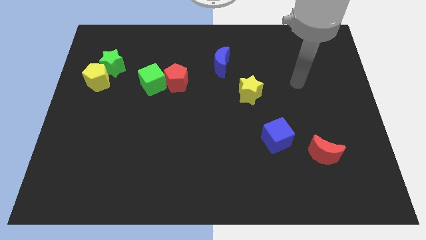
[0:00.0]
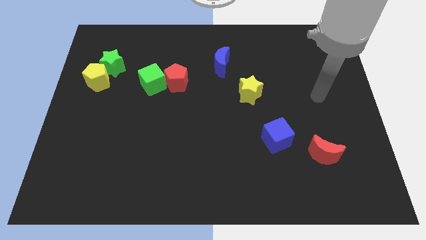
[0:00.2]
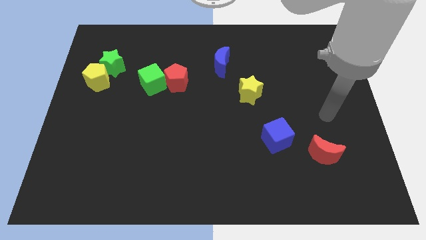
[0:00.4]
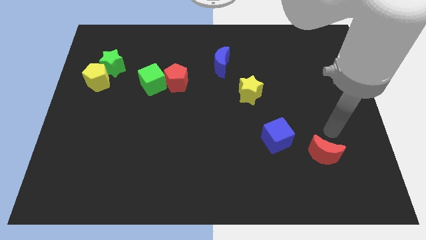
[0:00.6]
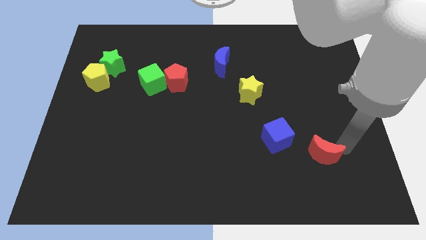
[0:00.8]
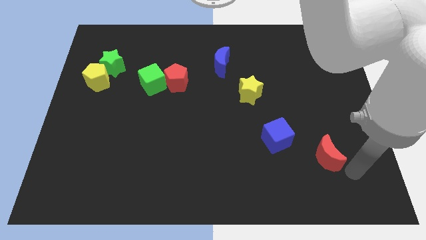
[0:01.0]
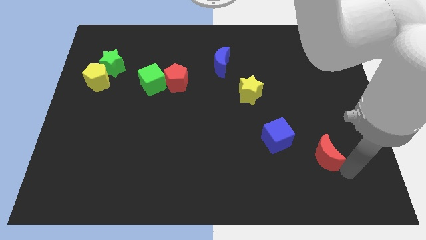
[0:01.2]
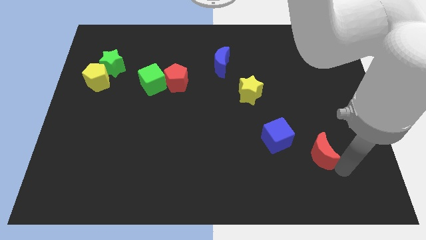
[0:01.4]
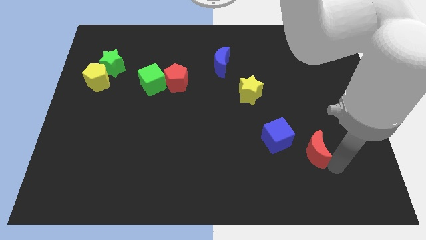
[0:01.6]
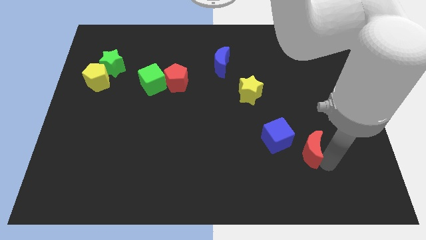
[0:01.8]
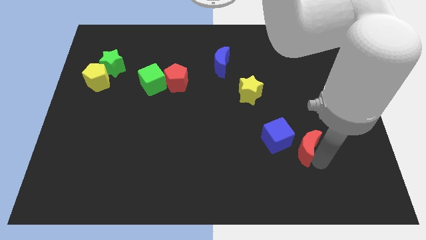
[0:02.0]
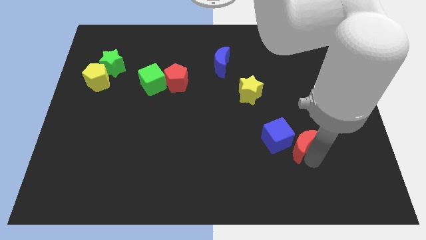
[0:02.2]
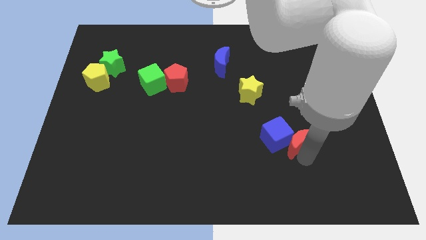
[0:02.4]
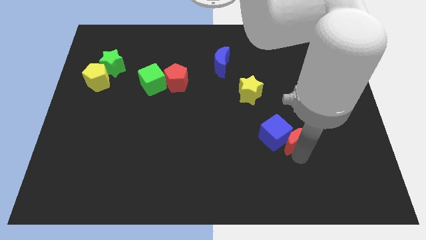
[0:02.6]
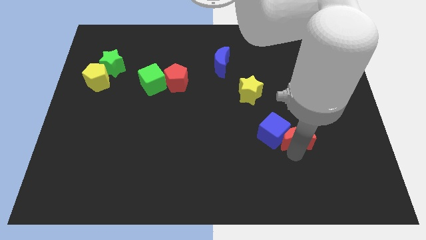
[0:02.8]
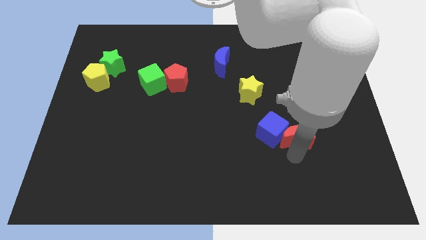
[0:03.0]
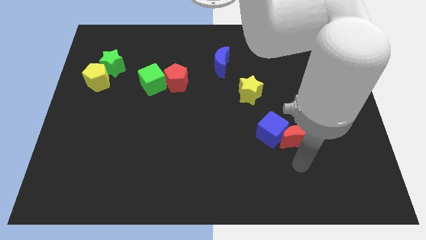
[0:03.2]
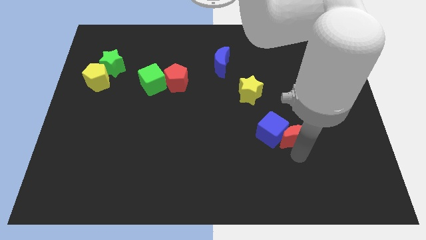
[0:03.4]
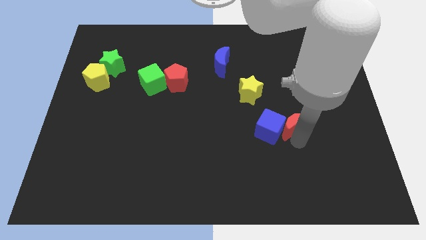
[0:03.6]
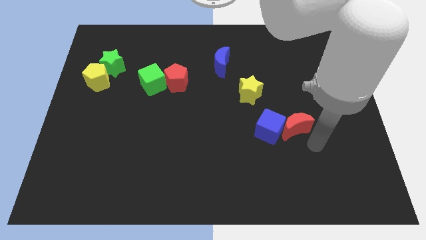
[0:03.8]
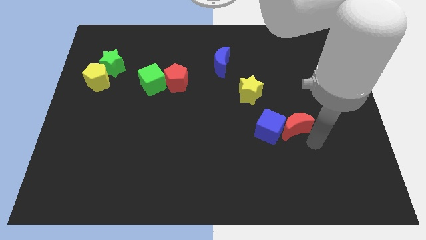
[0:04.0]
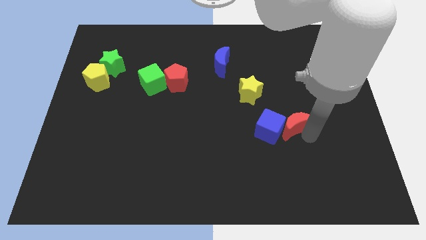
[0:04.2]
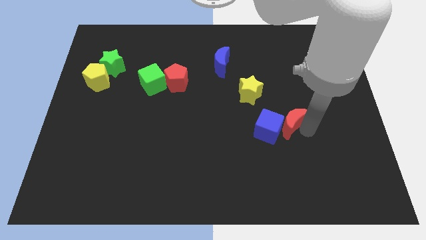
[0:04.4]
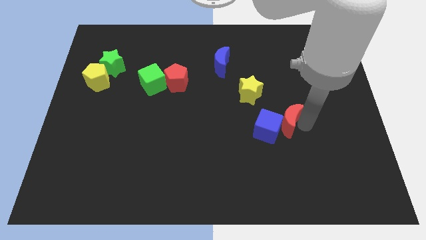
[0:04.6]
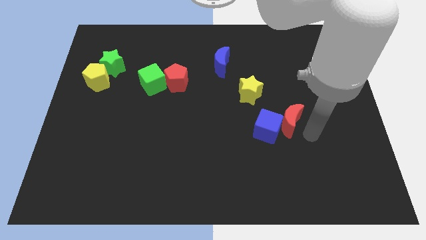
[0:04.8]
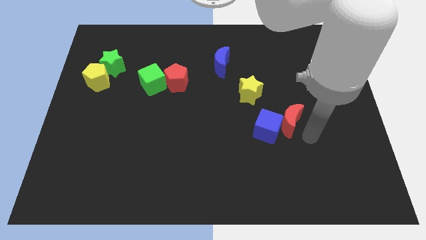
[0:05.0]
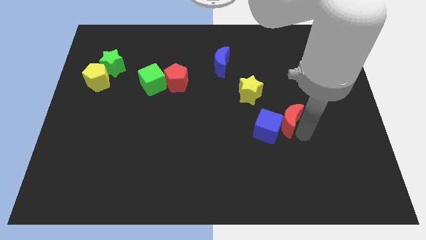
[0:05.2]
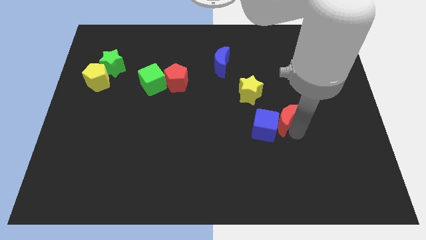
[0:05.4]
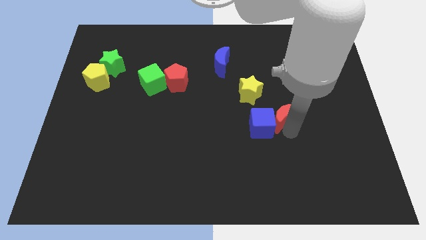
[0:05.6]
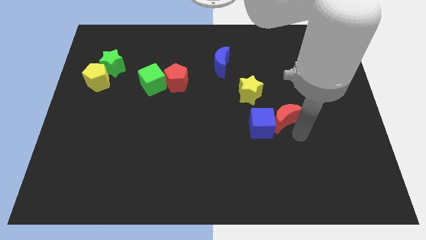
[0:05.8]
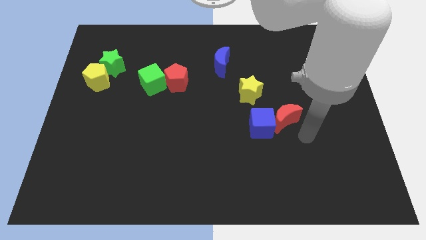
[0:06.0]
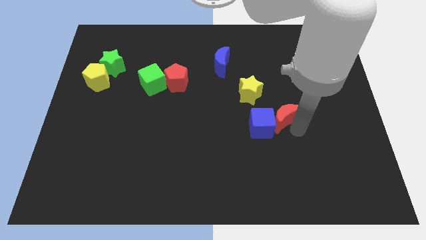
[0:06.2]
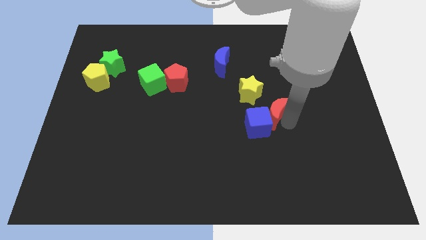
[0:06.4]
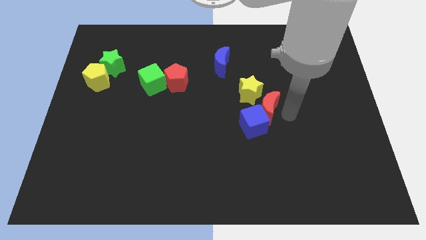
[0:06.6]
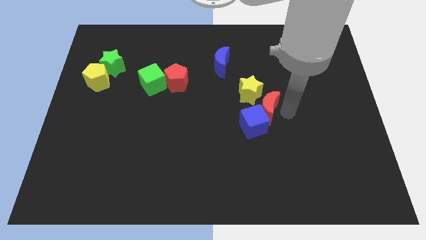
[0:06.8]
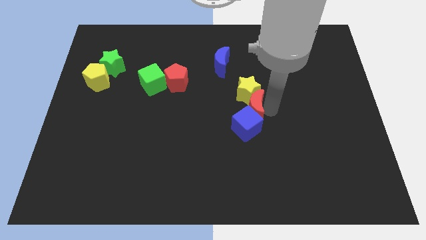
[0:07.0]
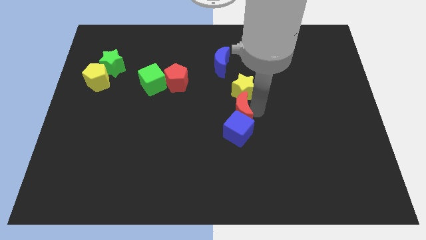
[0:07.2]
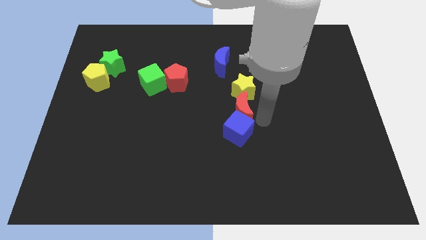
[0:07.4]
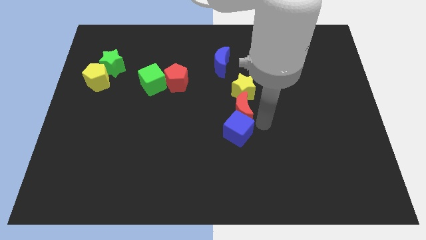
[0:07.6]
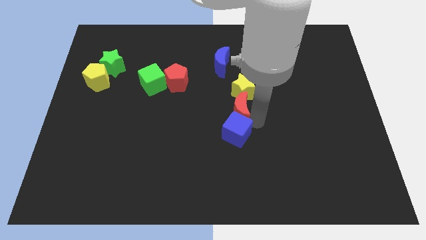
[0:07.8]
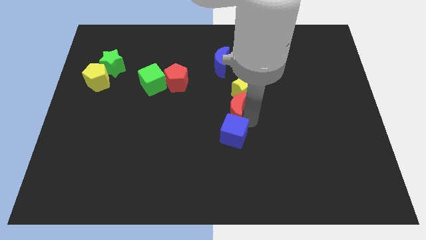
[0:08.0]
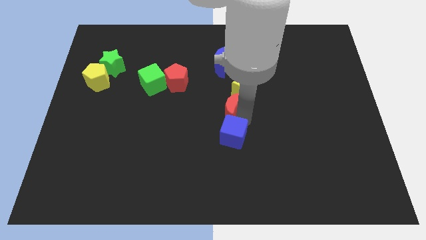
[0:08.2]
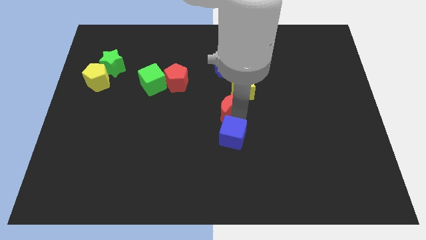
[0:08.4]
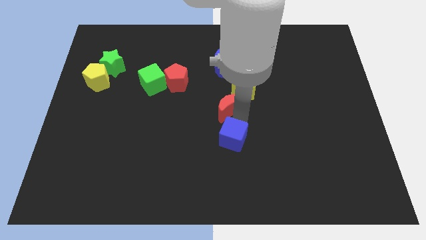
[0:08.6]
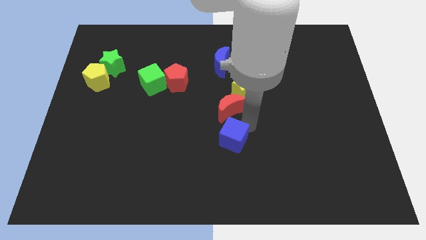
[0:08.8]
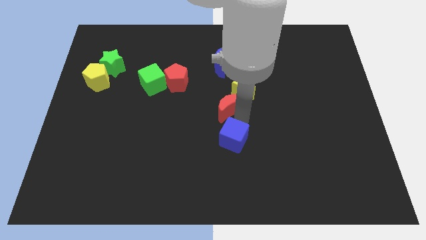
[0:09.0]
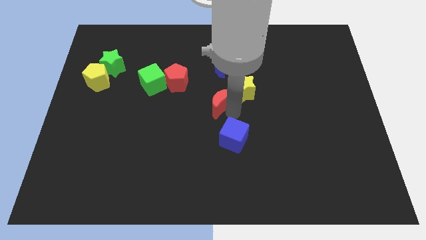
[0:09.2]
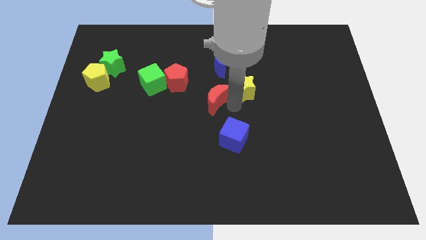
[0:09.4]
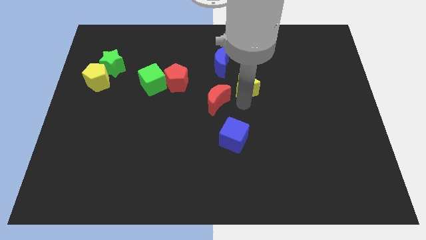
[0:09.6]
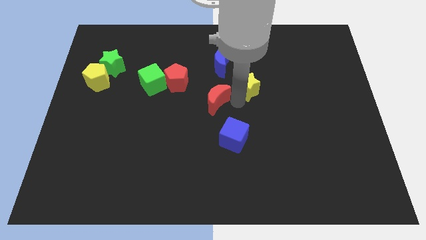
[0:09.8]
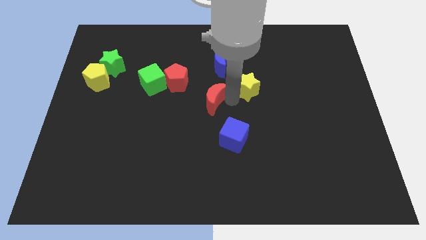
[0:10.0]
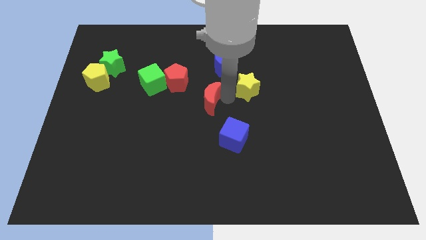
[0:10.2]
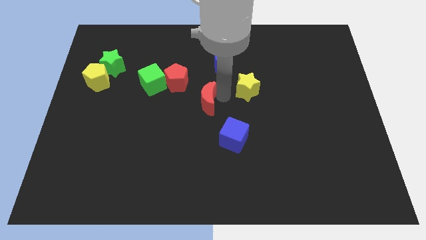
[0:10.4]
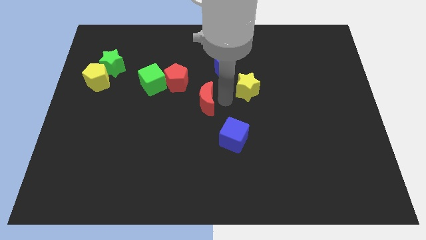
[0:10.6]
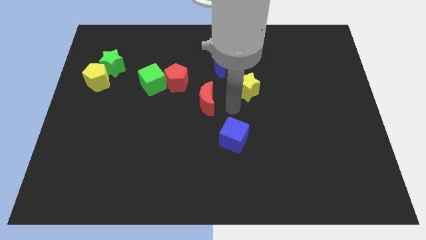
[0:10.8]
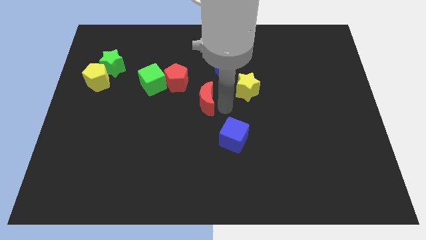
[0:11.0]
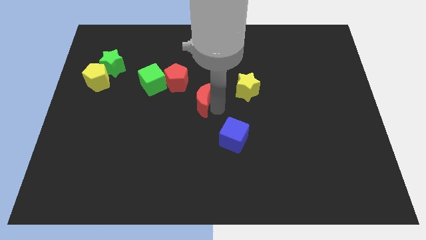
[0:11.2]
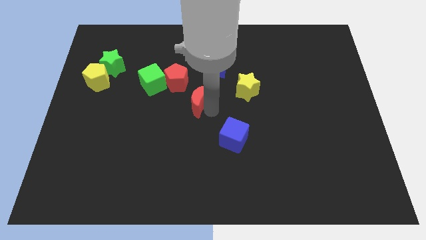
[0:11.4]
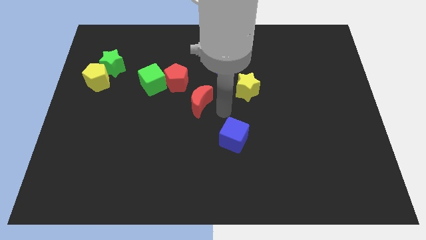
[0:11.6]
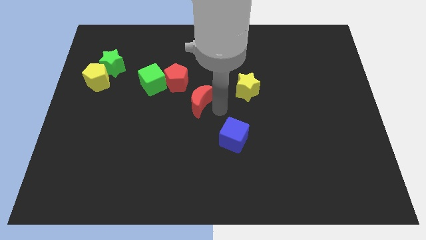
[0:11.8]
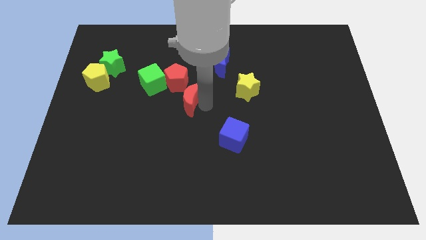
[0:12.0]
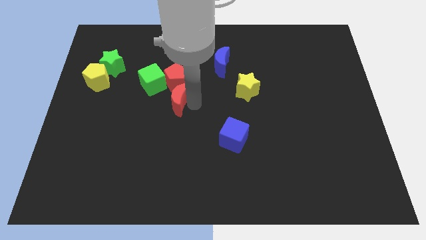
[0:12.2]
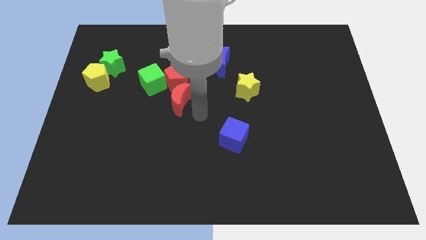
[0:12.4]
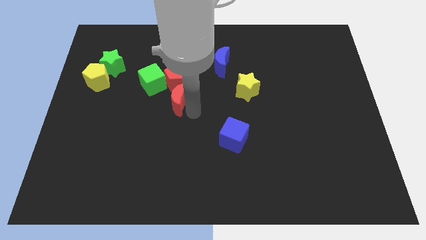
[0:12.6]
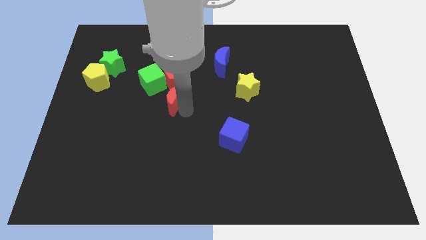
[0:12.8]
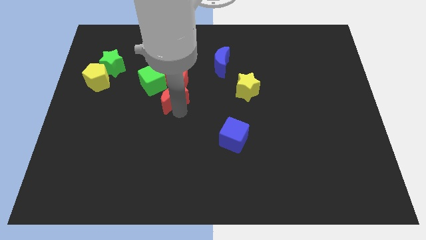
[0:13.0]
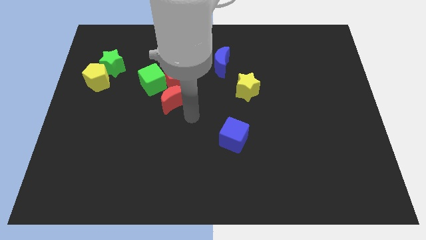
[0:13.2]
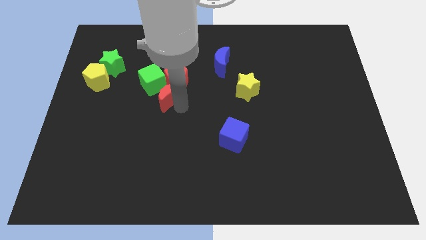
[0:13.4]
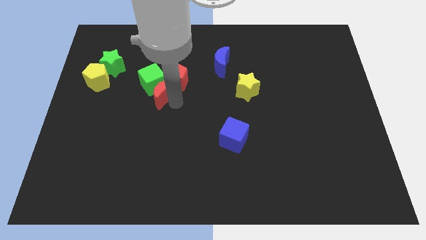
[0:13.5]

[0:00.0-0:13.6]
slide the red moon towards the green cube

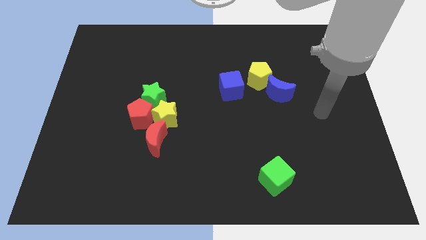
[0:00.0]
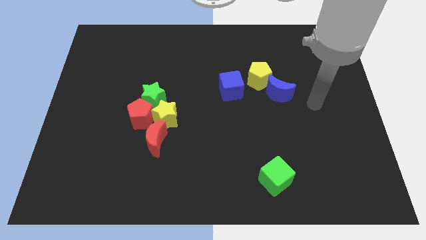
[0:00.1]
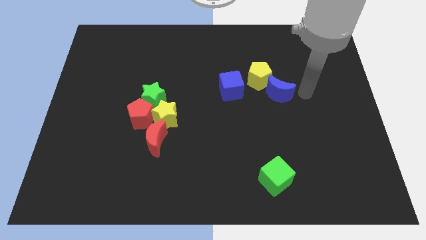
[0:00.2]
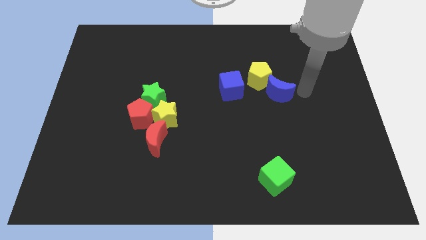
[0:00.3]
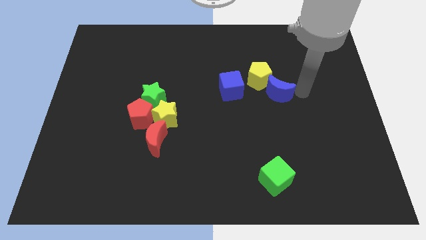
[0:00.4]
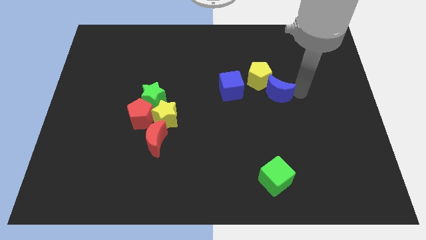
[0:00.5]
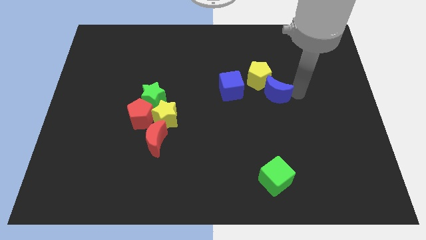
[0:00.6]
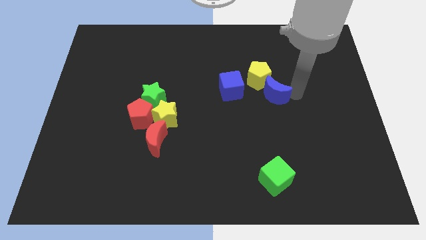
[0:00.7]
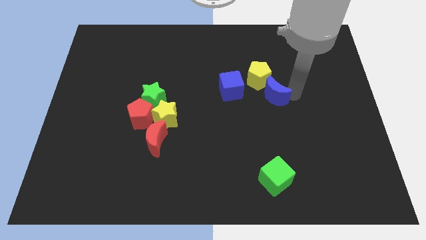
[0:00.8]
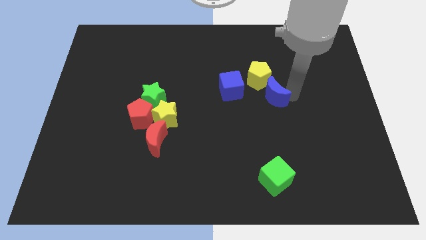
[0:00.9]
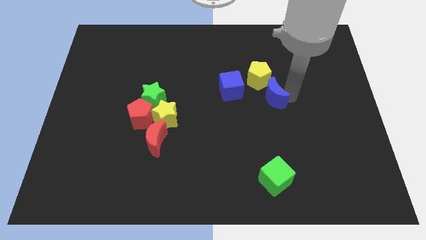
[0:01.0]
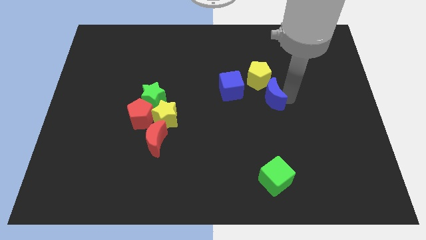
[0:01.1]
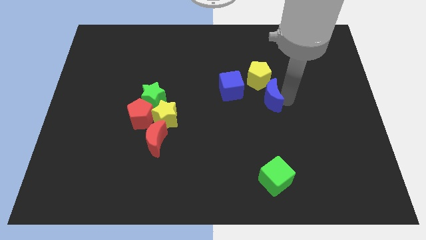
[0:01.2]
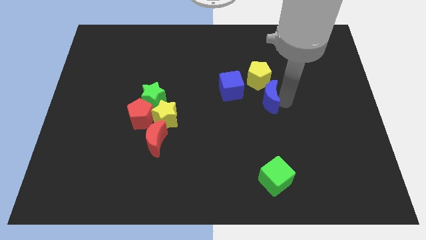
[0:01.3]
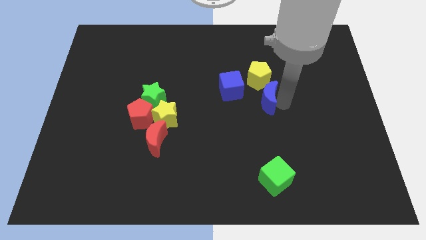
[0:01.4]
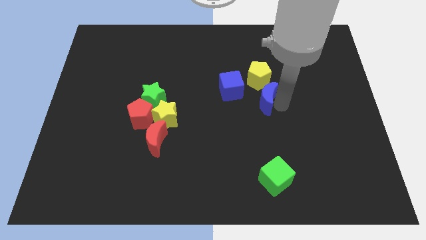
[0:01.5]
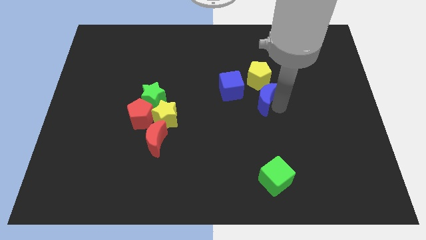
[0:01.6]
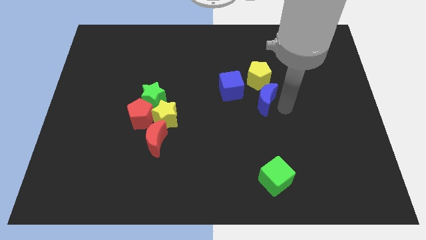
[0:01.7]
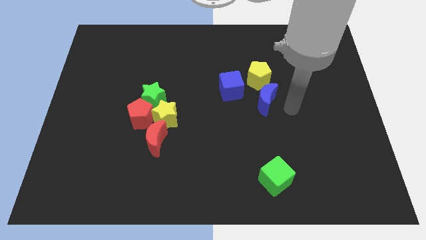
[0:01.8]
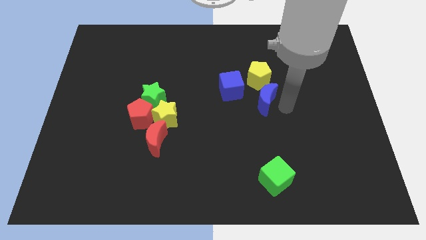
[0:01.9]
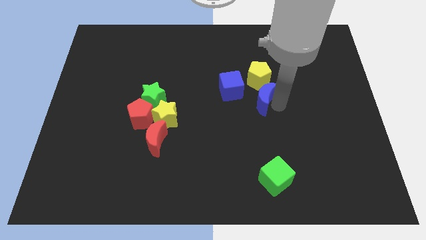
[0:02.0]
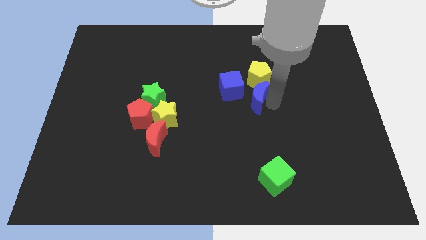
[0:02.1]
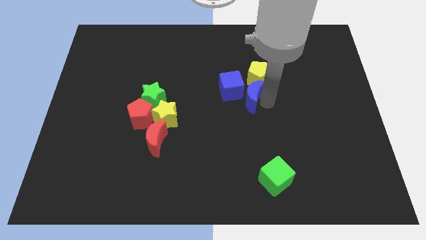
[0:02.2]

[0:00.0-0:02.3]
slide the blue moon to the blue cube
